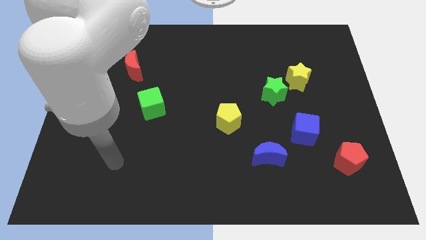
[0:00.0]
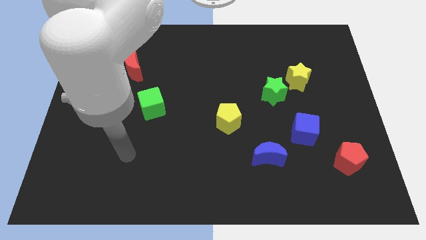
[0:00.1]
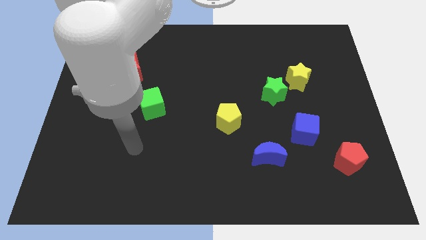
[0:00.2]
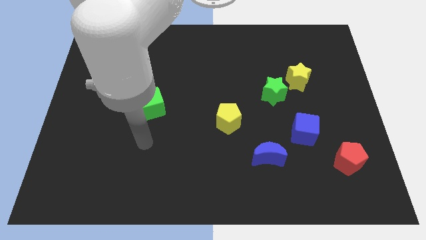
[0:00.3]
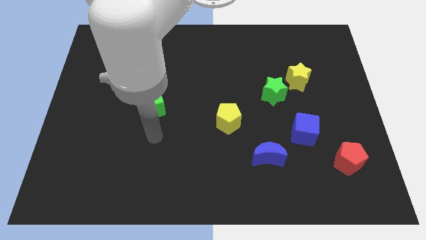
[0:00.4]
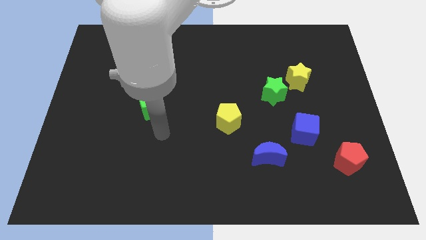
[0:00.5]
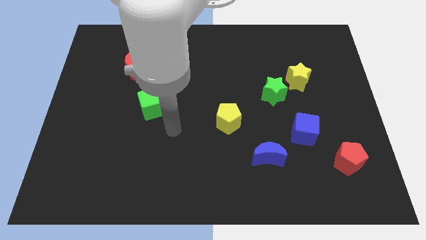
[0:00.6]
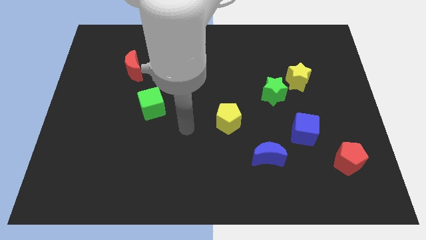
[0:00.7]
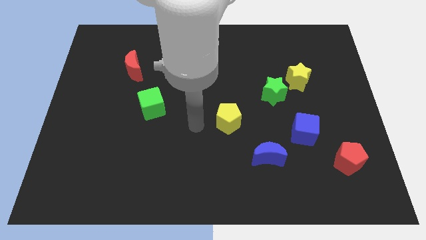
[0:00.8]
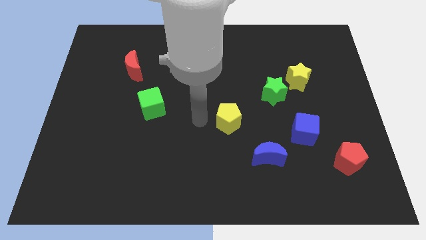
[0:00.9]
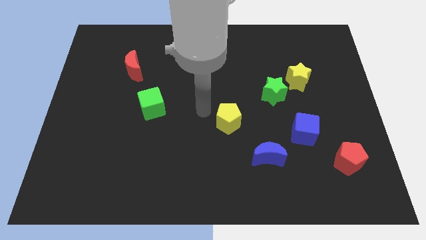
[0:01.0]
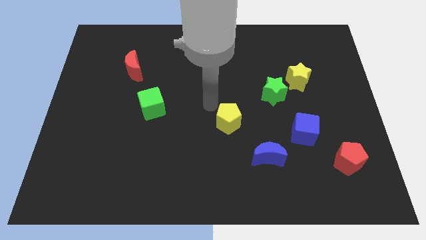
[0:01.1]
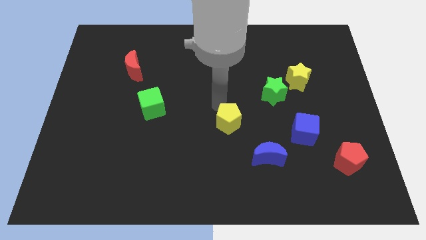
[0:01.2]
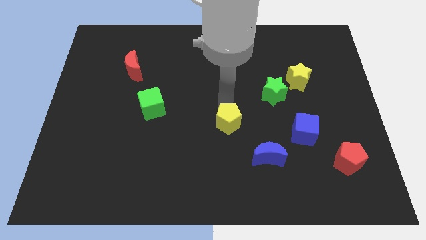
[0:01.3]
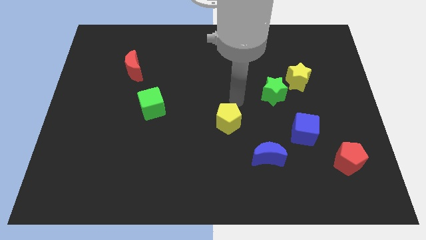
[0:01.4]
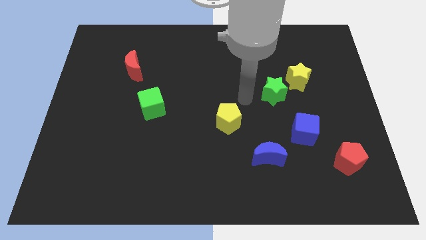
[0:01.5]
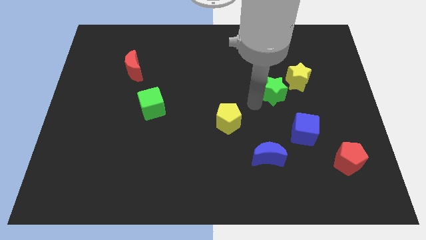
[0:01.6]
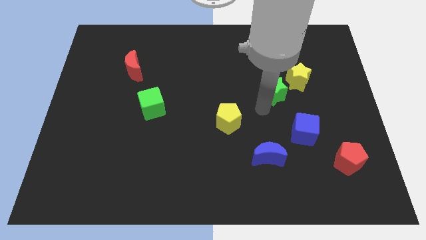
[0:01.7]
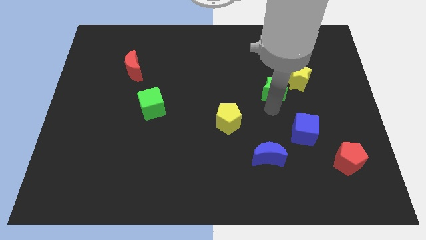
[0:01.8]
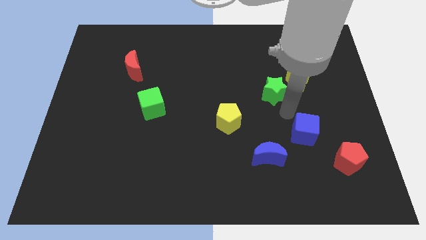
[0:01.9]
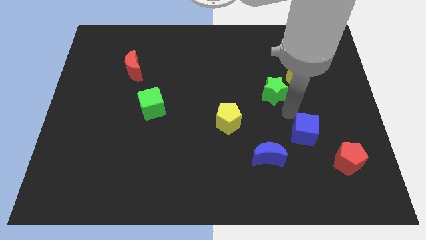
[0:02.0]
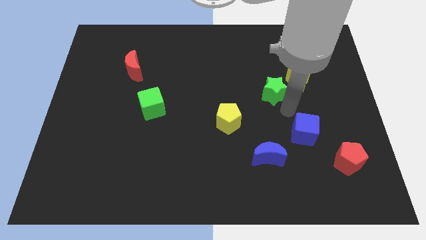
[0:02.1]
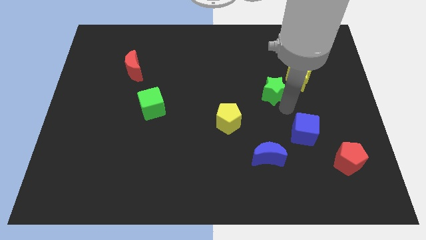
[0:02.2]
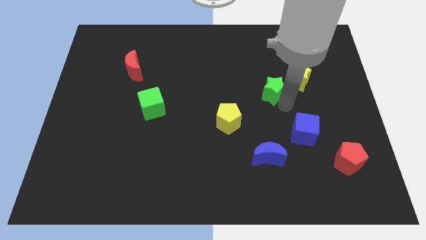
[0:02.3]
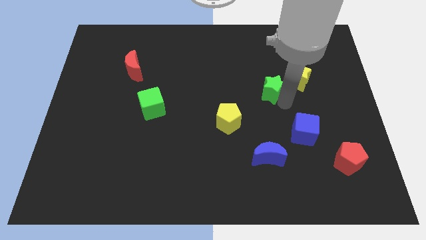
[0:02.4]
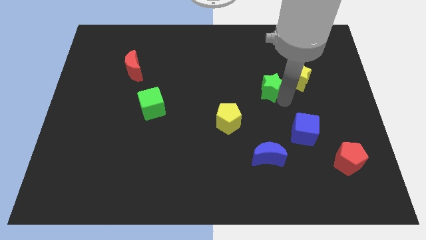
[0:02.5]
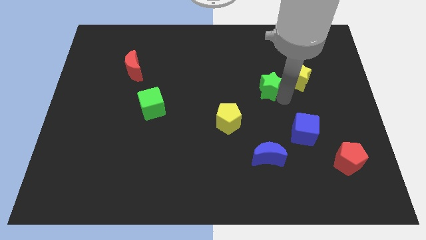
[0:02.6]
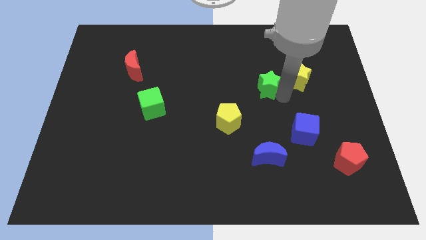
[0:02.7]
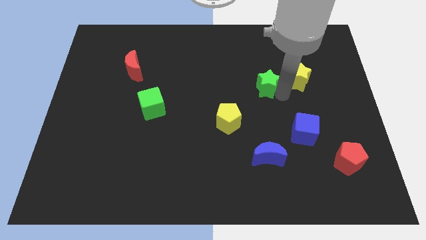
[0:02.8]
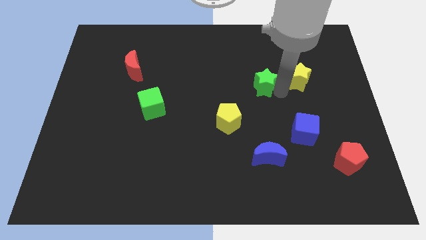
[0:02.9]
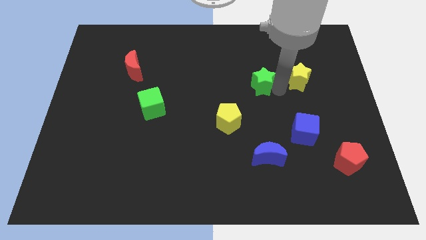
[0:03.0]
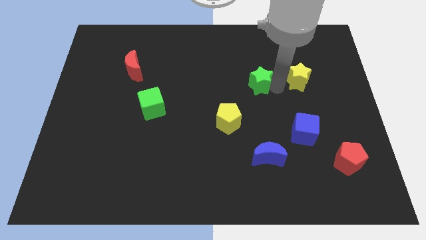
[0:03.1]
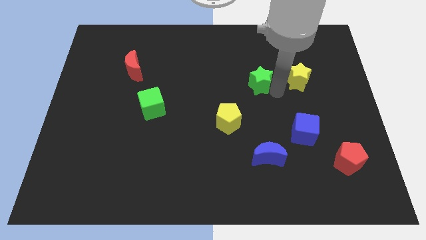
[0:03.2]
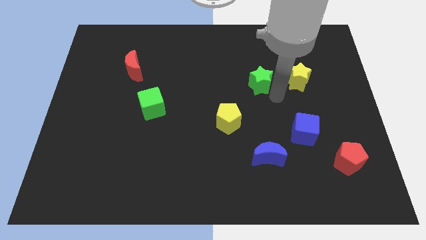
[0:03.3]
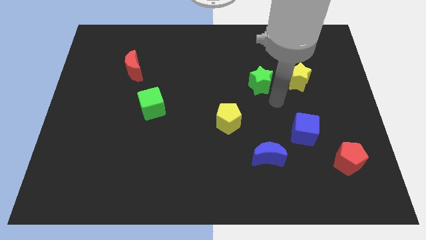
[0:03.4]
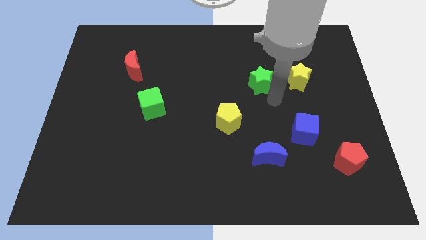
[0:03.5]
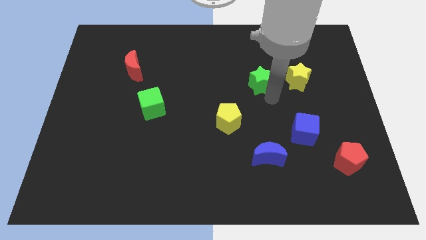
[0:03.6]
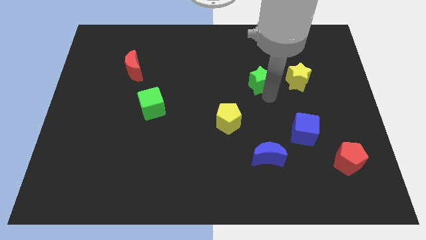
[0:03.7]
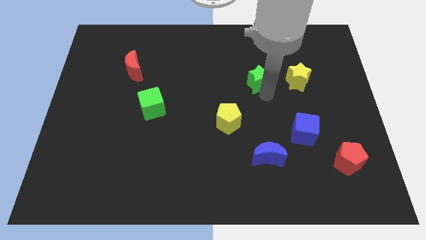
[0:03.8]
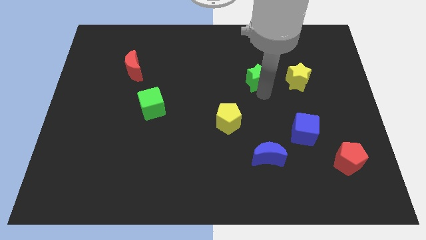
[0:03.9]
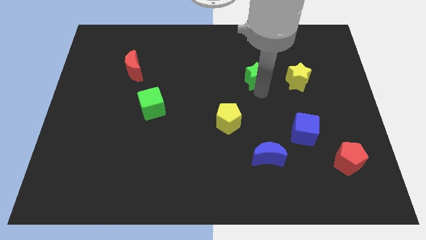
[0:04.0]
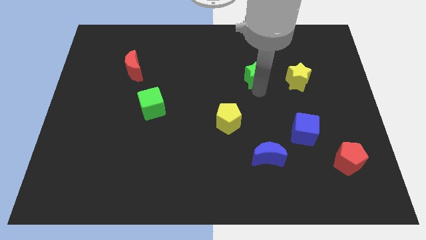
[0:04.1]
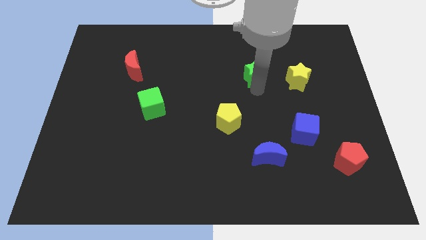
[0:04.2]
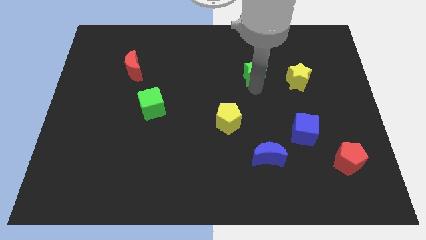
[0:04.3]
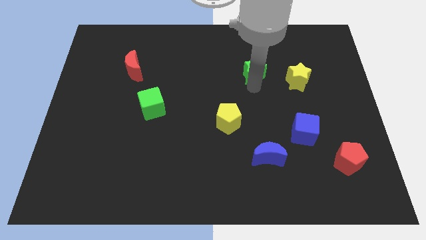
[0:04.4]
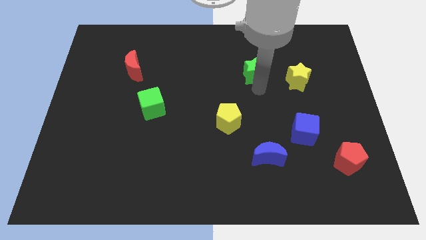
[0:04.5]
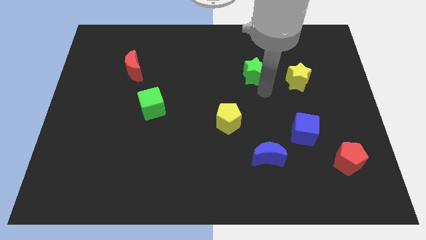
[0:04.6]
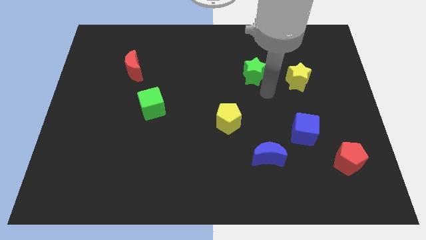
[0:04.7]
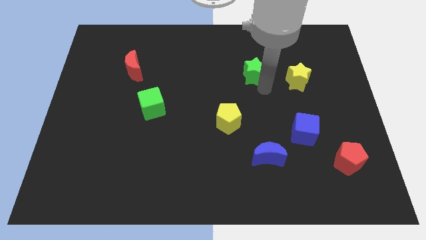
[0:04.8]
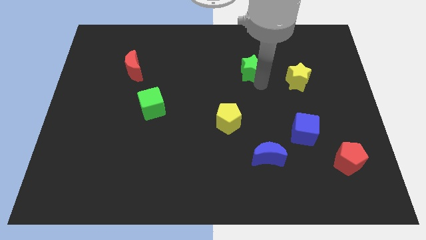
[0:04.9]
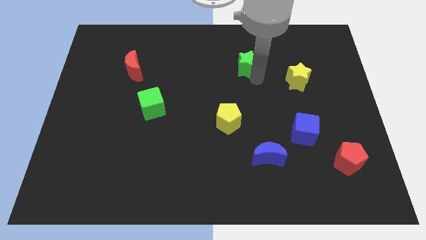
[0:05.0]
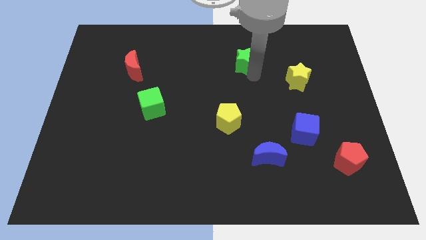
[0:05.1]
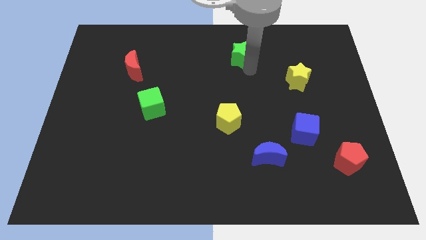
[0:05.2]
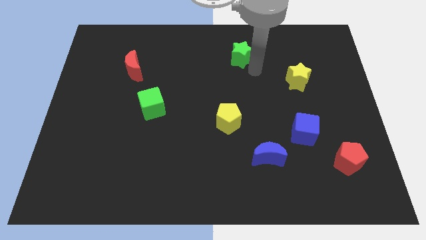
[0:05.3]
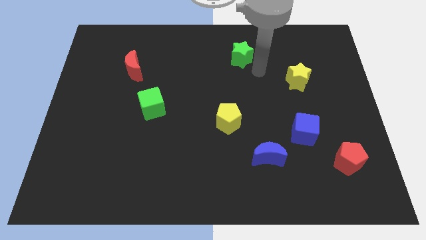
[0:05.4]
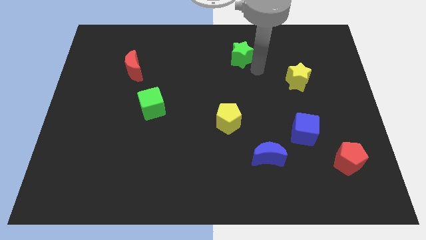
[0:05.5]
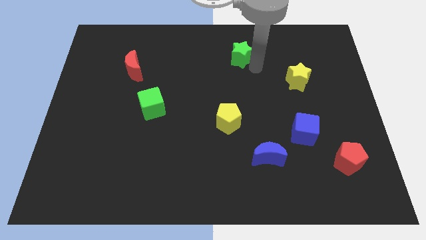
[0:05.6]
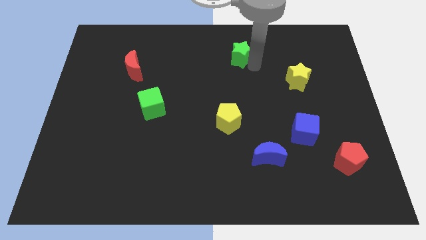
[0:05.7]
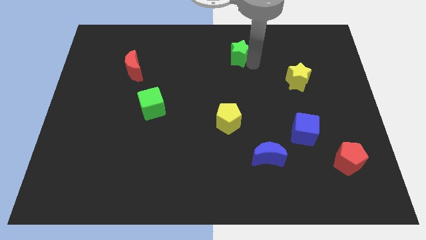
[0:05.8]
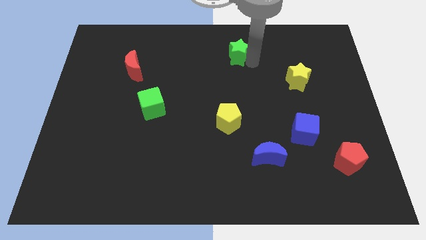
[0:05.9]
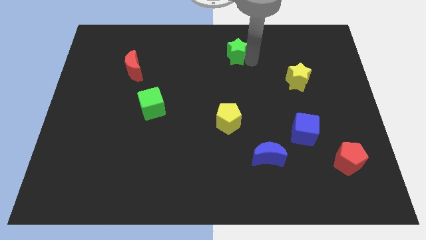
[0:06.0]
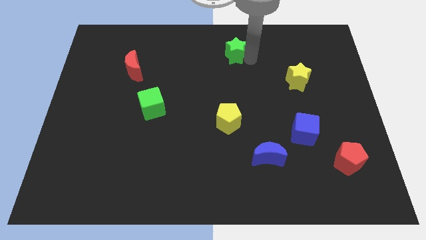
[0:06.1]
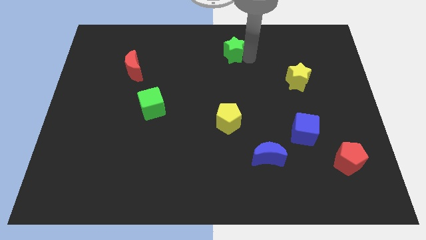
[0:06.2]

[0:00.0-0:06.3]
put the green star to the towards your base

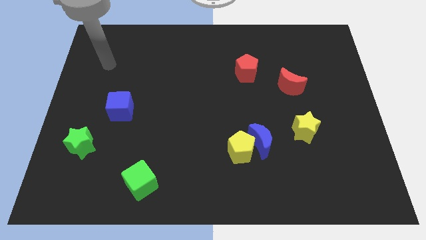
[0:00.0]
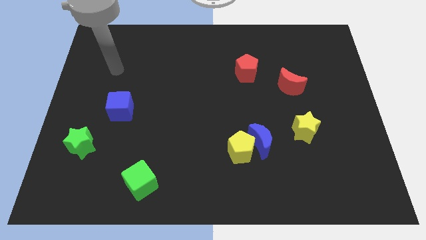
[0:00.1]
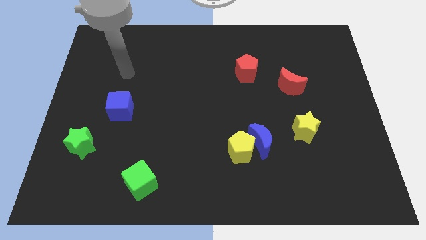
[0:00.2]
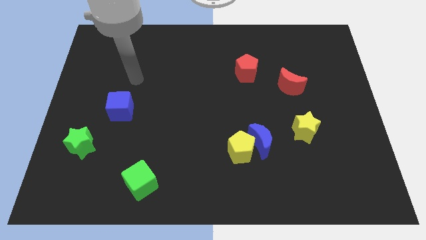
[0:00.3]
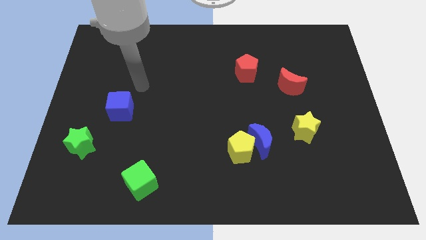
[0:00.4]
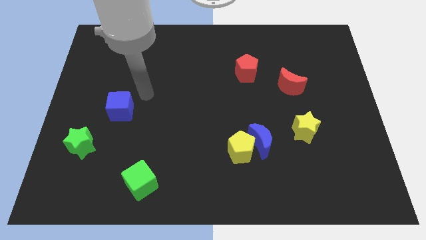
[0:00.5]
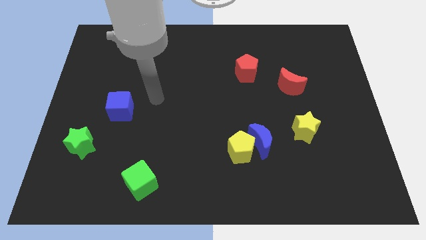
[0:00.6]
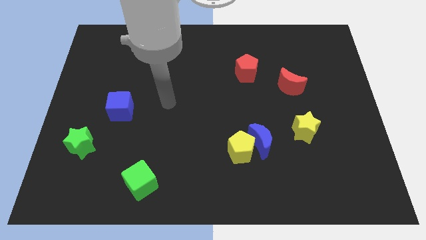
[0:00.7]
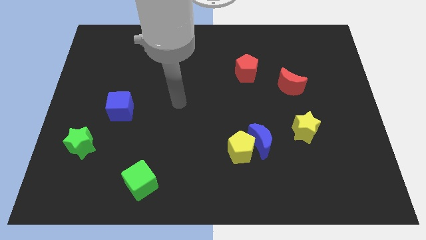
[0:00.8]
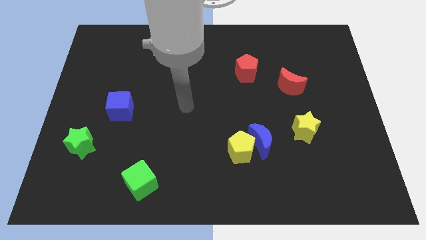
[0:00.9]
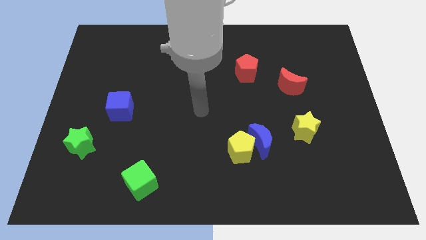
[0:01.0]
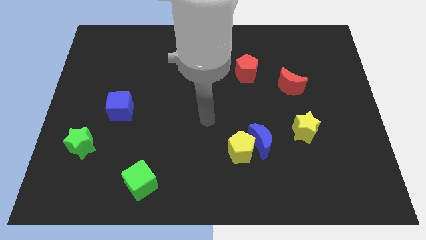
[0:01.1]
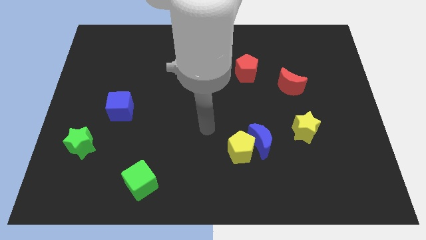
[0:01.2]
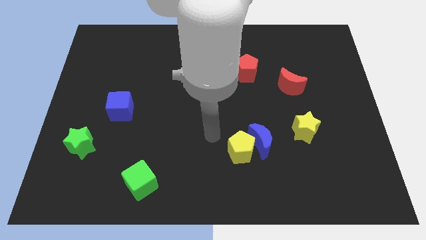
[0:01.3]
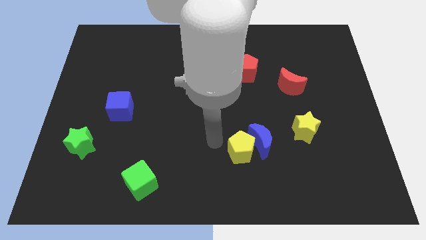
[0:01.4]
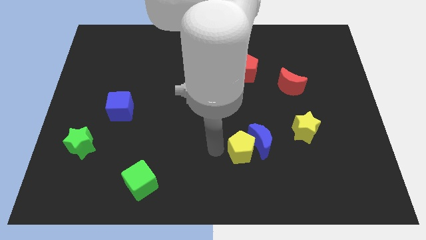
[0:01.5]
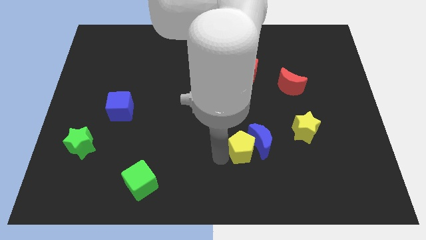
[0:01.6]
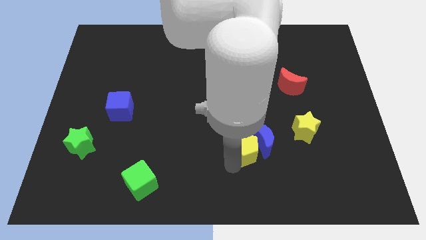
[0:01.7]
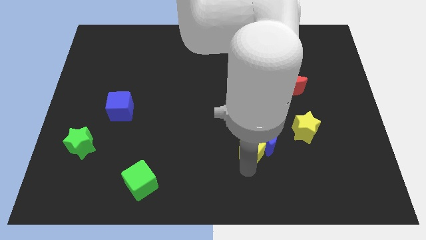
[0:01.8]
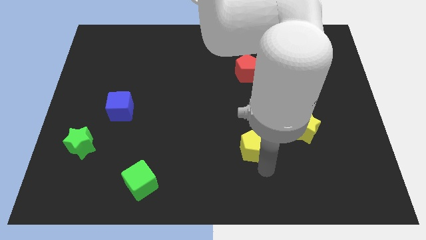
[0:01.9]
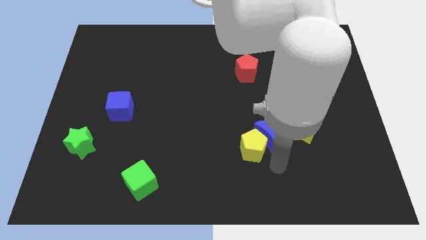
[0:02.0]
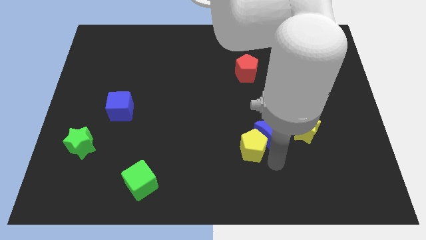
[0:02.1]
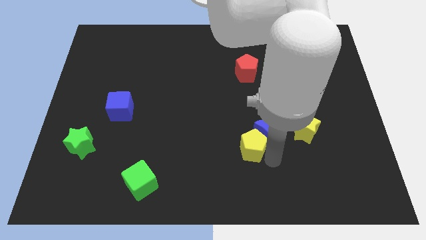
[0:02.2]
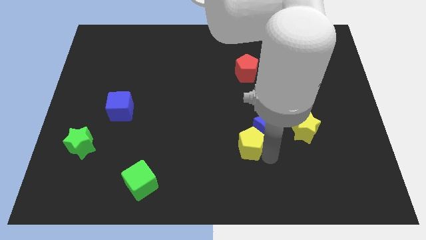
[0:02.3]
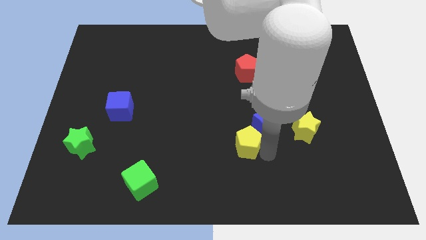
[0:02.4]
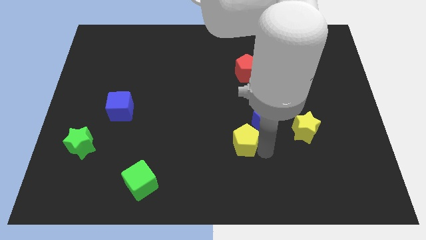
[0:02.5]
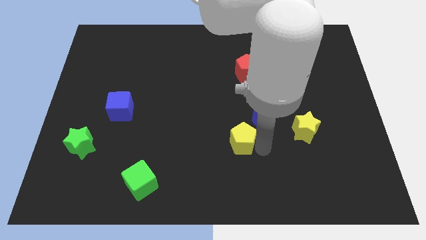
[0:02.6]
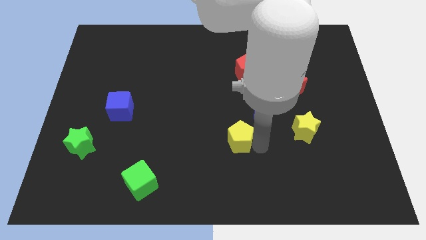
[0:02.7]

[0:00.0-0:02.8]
move the yellow pentagon to the middle of the board
